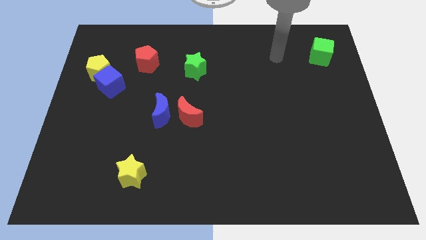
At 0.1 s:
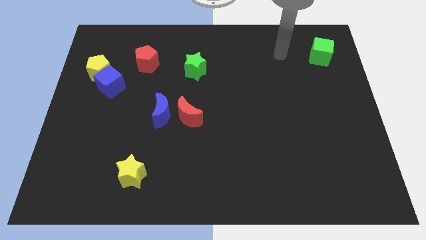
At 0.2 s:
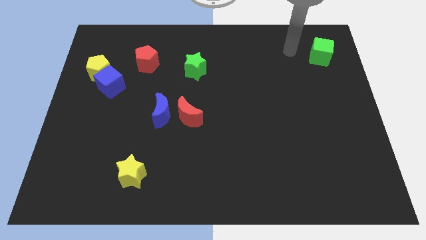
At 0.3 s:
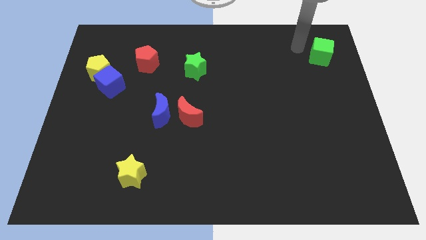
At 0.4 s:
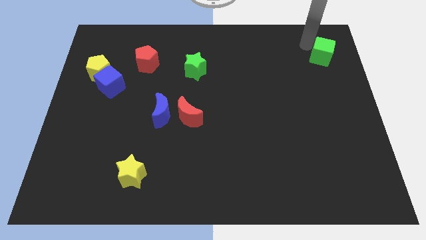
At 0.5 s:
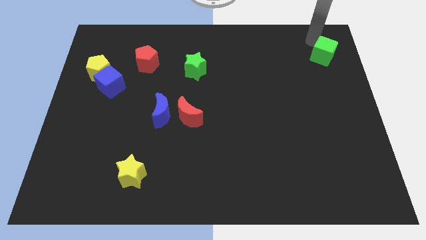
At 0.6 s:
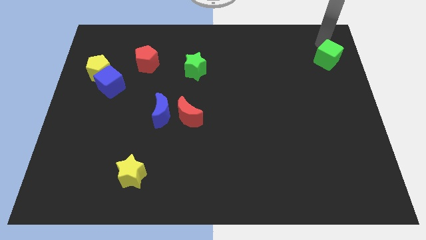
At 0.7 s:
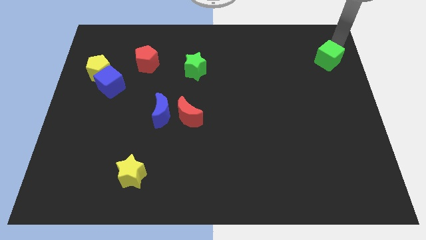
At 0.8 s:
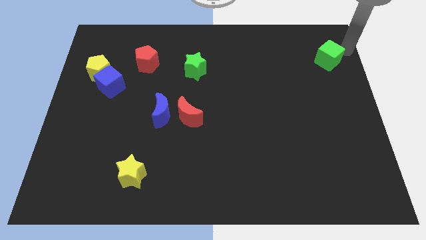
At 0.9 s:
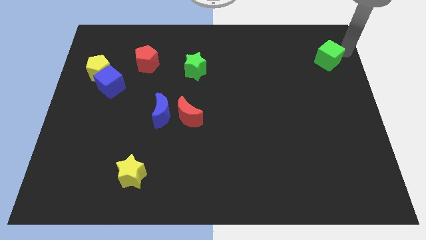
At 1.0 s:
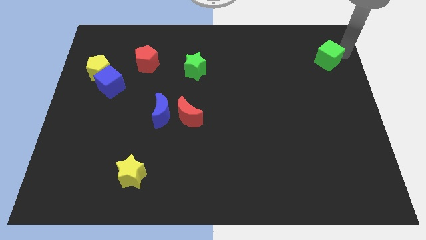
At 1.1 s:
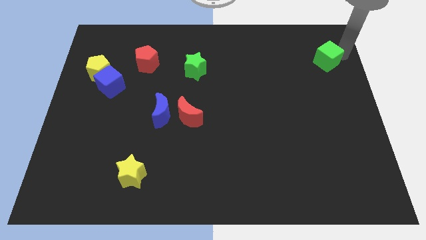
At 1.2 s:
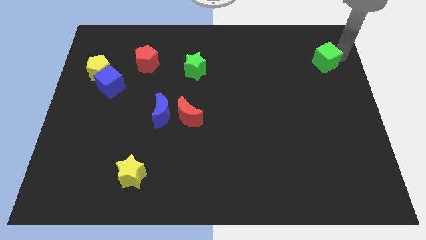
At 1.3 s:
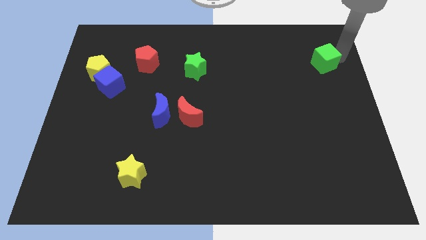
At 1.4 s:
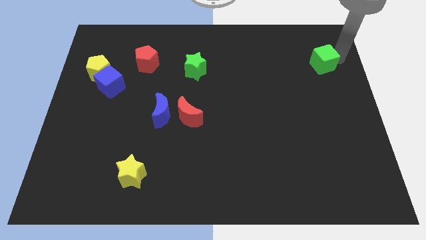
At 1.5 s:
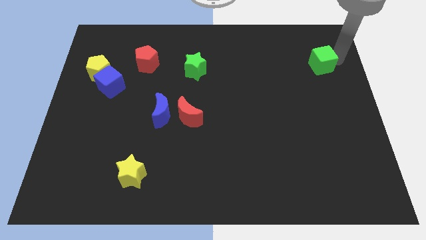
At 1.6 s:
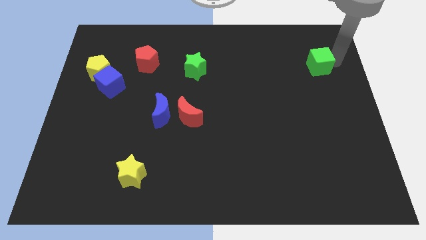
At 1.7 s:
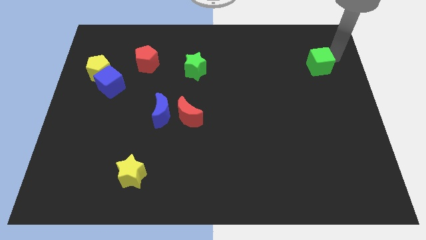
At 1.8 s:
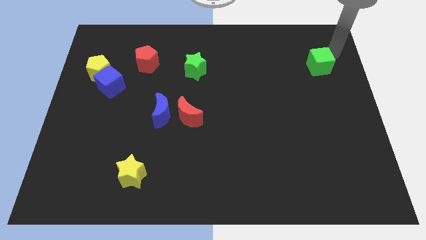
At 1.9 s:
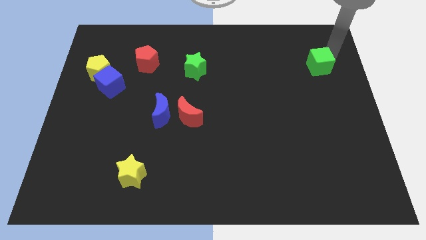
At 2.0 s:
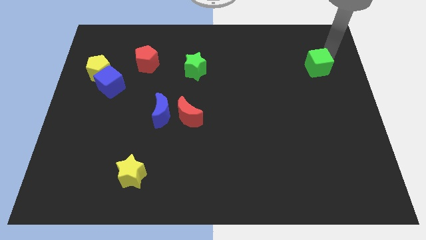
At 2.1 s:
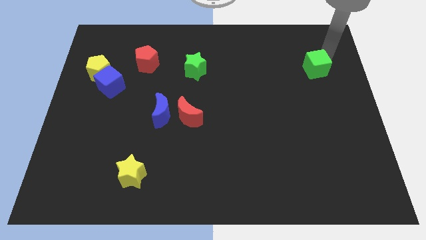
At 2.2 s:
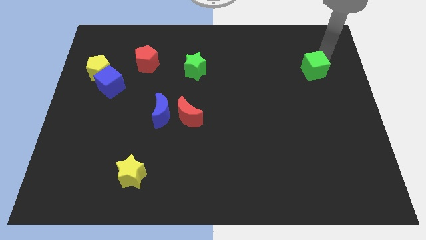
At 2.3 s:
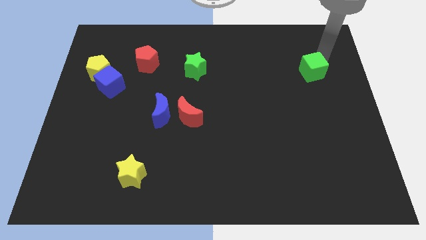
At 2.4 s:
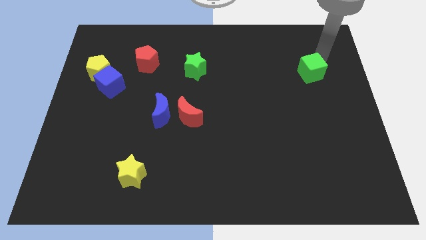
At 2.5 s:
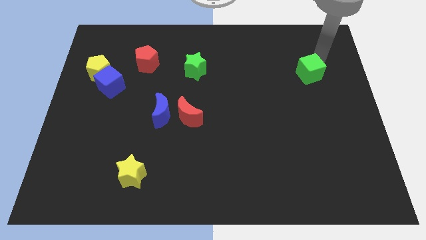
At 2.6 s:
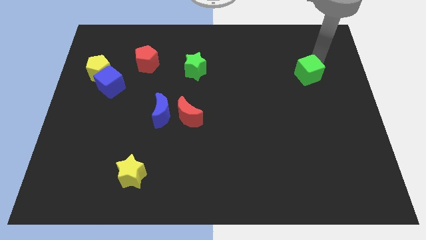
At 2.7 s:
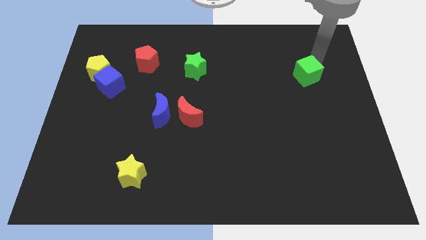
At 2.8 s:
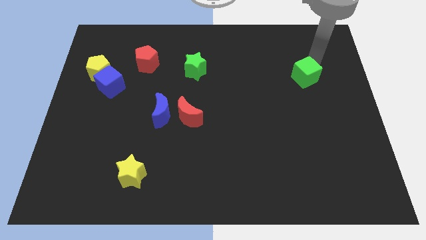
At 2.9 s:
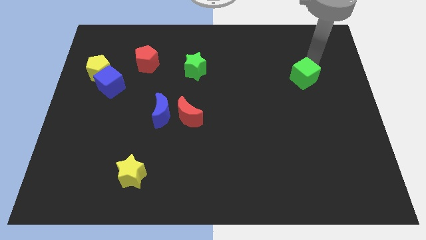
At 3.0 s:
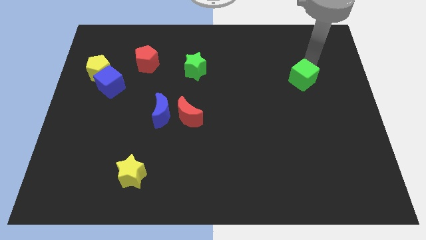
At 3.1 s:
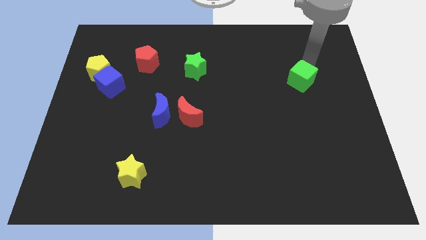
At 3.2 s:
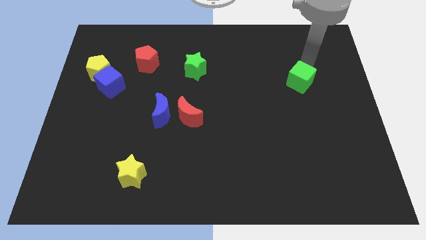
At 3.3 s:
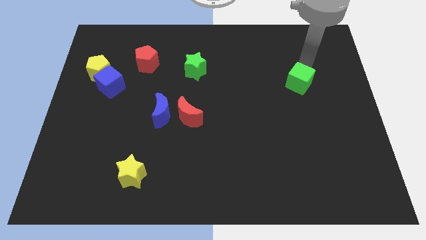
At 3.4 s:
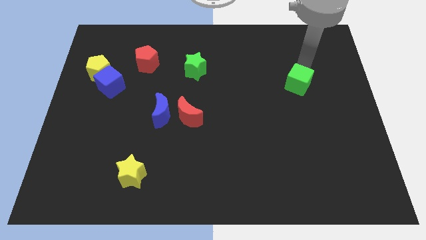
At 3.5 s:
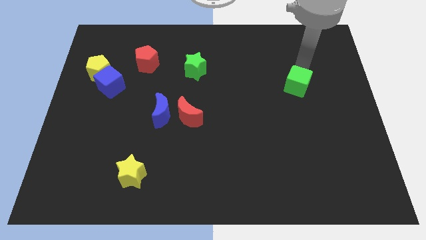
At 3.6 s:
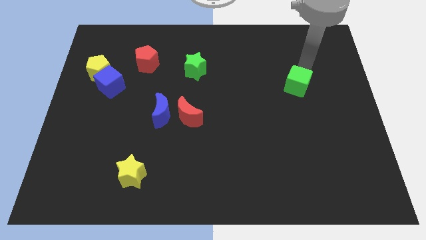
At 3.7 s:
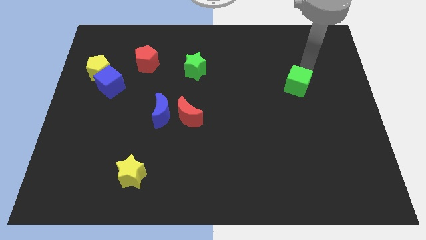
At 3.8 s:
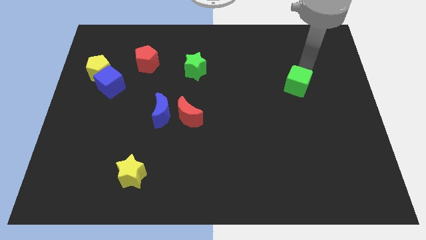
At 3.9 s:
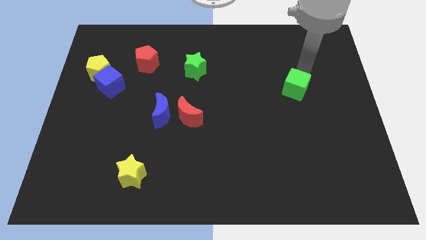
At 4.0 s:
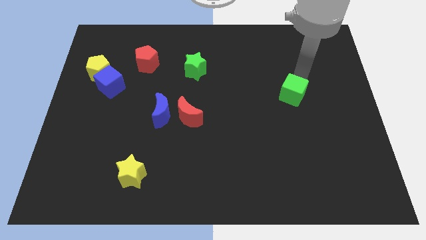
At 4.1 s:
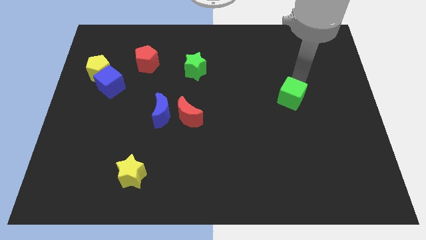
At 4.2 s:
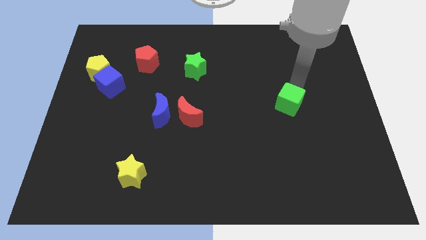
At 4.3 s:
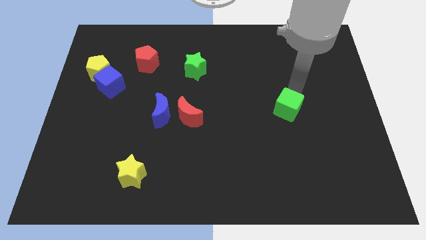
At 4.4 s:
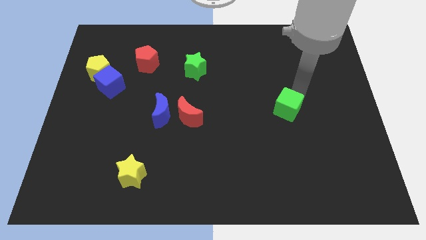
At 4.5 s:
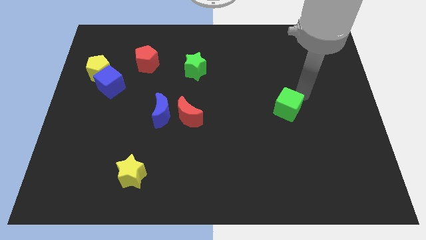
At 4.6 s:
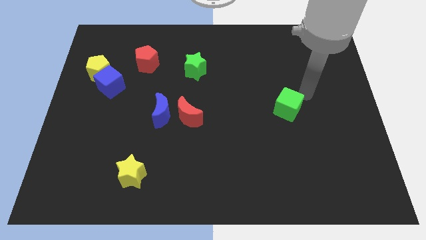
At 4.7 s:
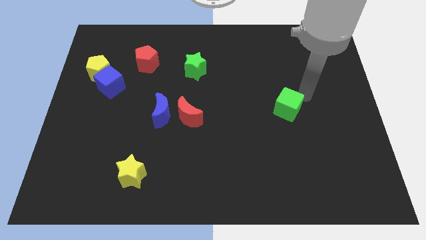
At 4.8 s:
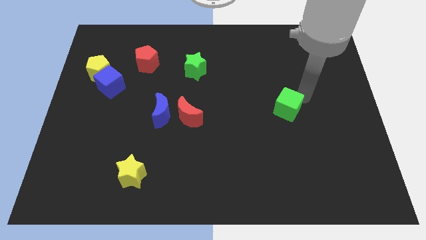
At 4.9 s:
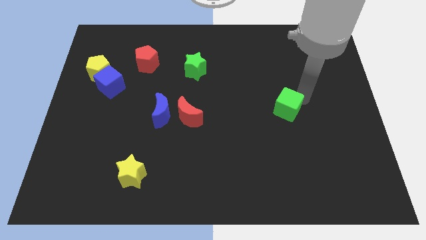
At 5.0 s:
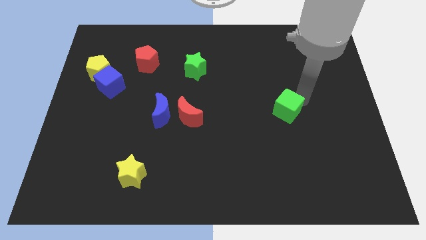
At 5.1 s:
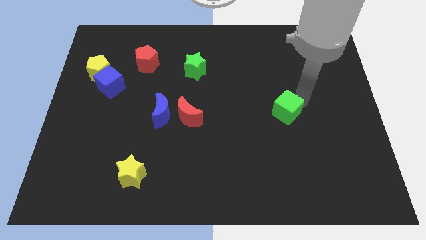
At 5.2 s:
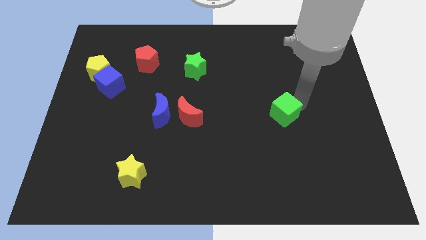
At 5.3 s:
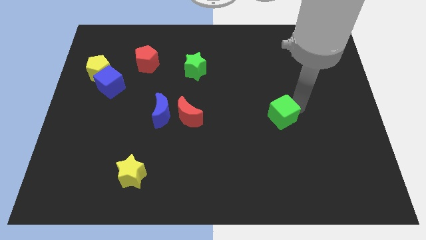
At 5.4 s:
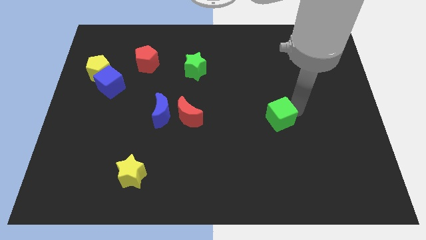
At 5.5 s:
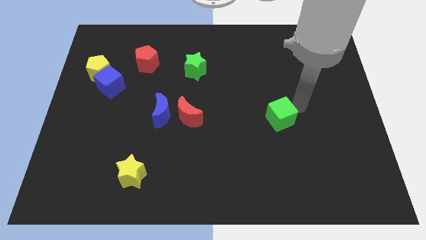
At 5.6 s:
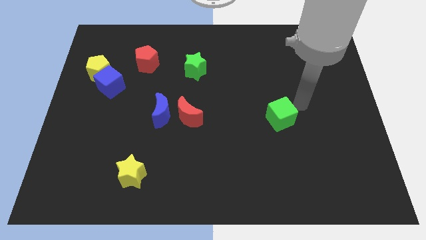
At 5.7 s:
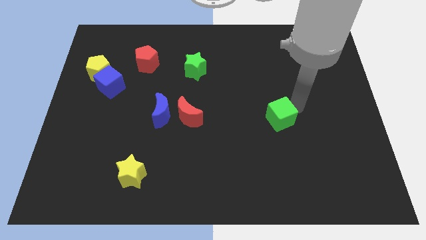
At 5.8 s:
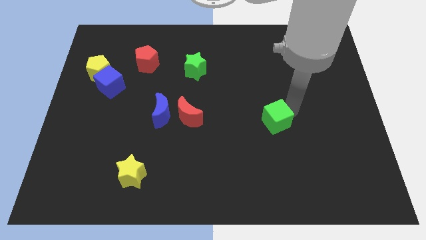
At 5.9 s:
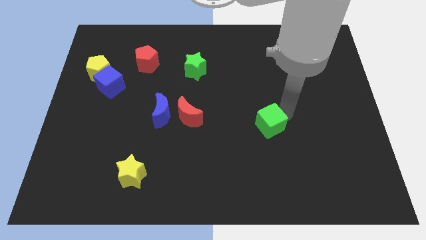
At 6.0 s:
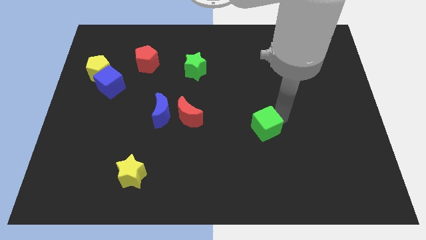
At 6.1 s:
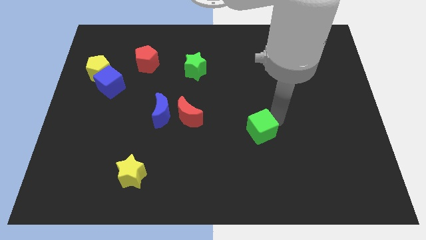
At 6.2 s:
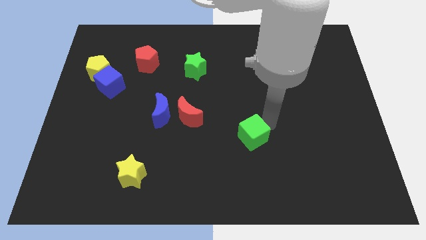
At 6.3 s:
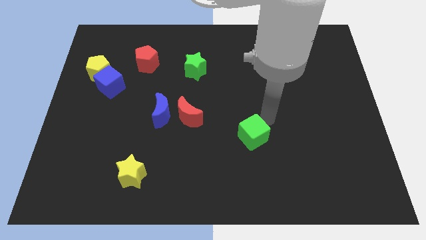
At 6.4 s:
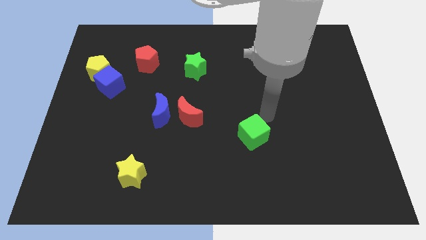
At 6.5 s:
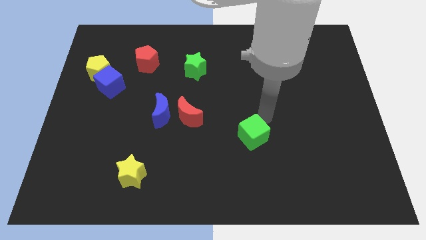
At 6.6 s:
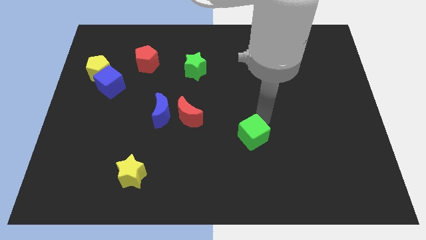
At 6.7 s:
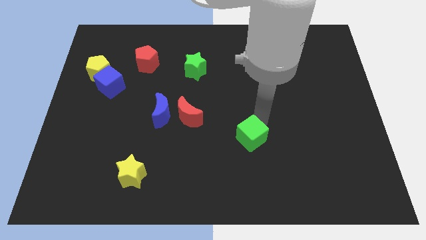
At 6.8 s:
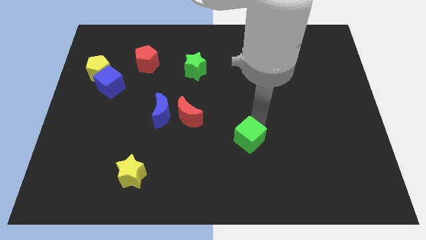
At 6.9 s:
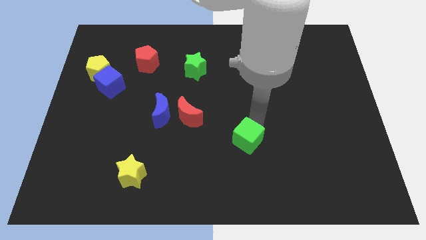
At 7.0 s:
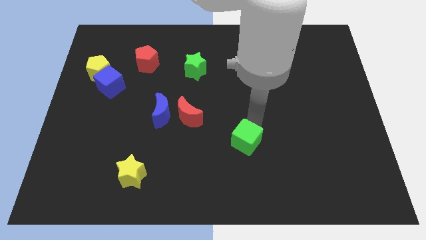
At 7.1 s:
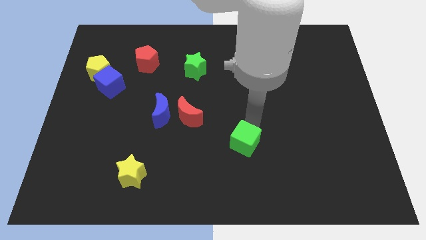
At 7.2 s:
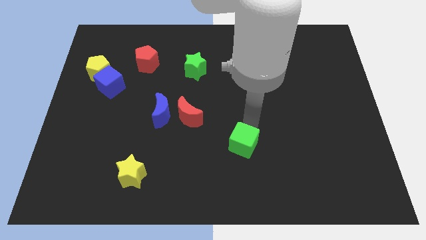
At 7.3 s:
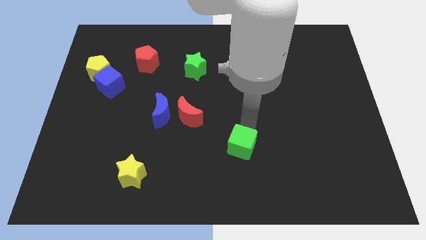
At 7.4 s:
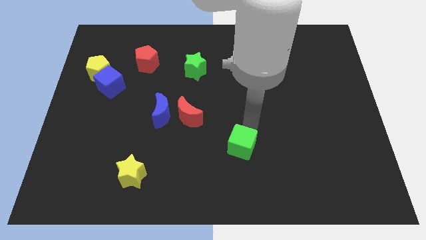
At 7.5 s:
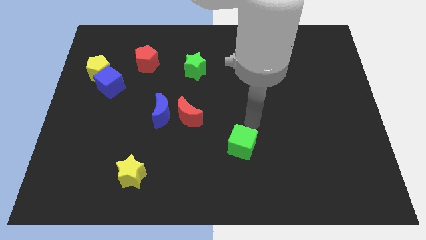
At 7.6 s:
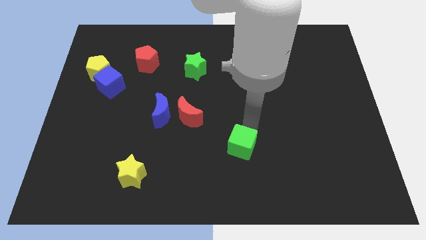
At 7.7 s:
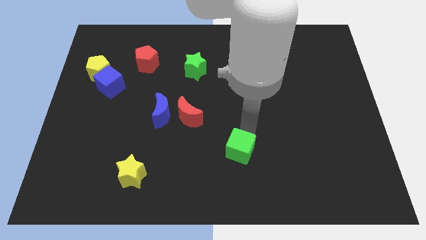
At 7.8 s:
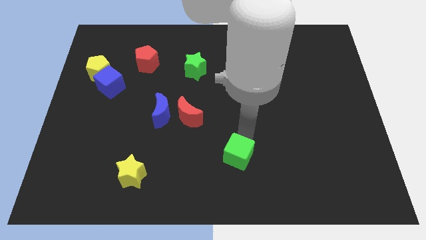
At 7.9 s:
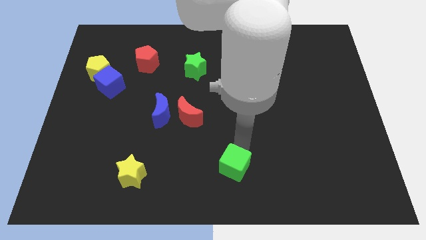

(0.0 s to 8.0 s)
push the green cube to the bottom
